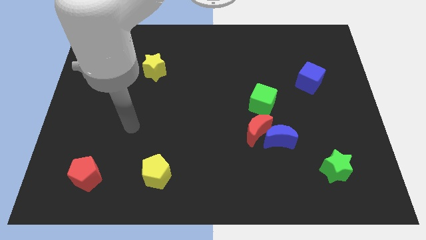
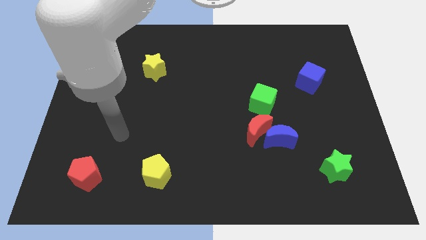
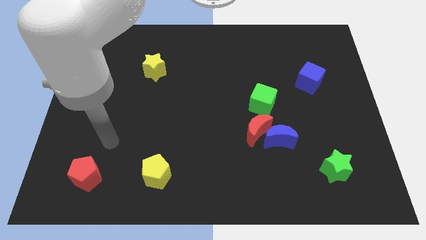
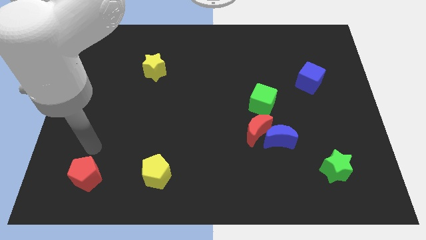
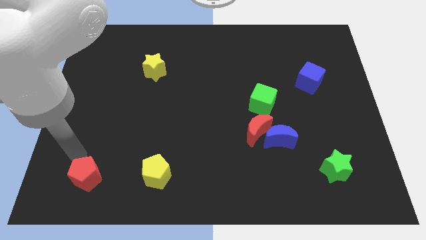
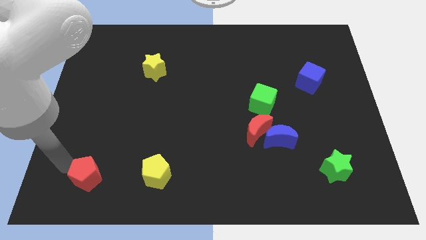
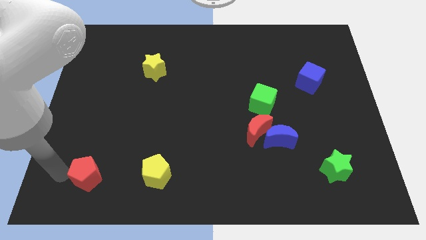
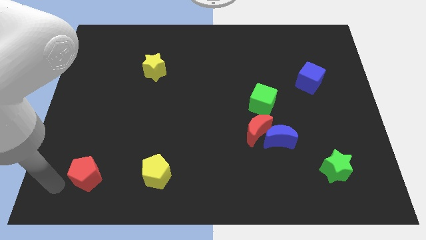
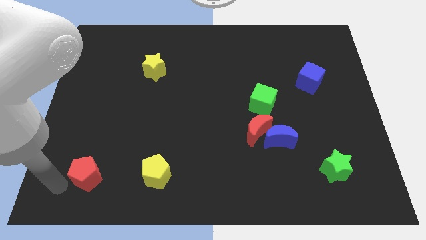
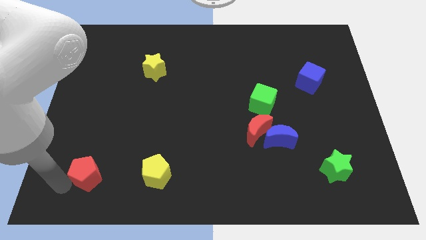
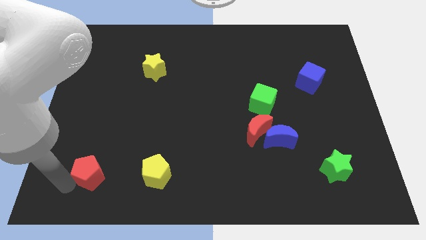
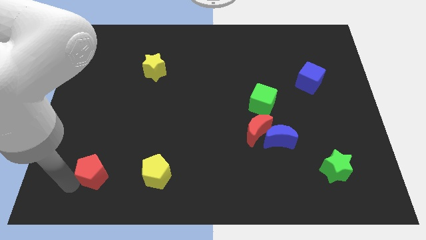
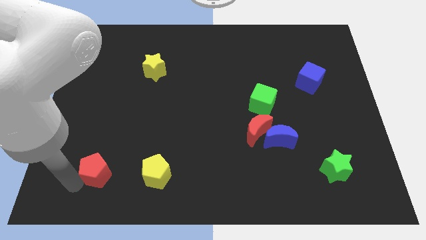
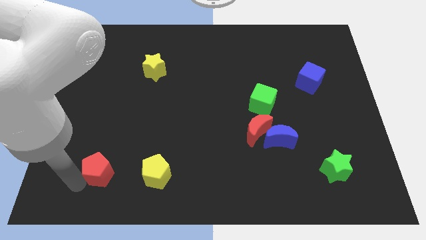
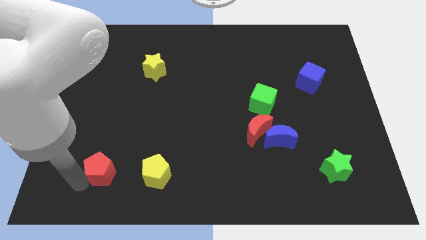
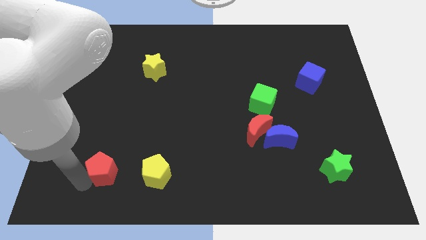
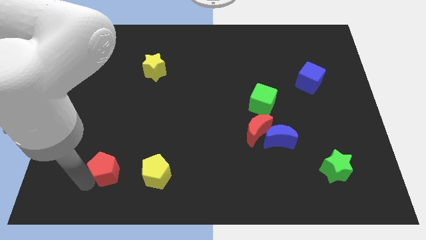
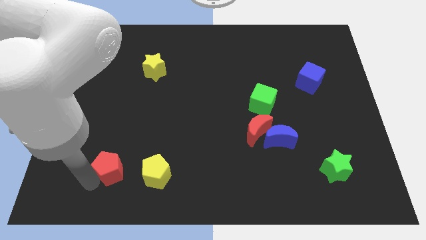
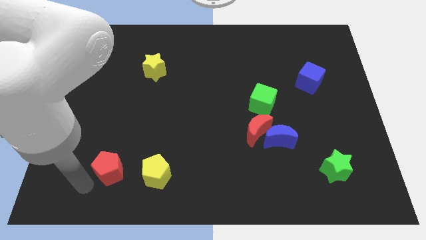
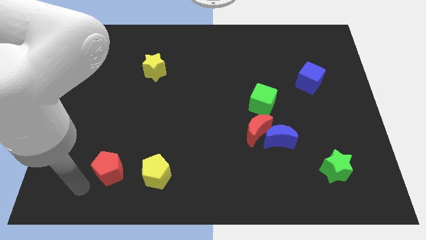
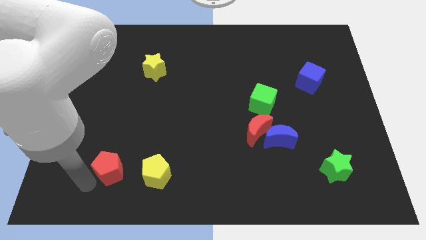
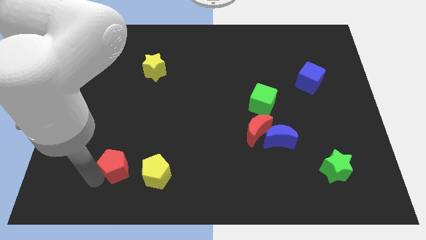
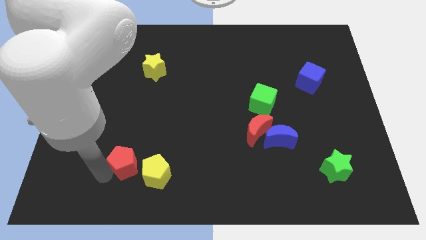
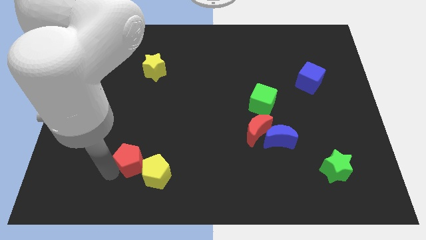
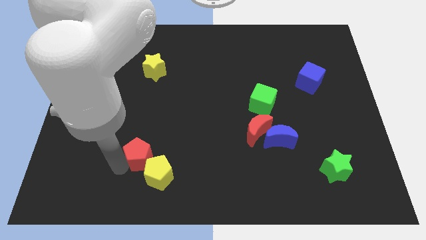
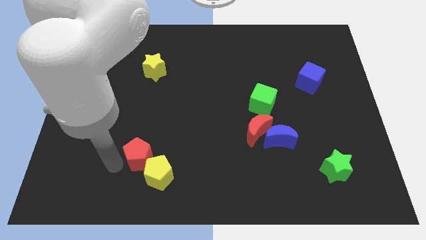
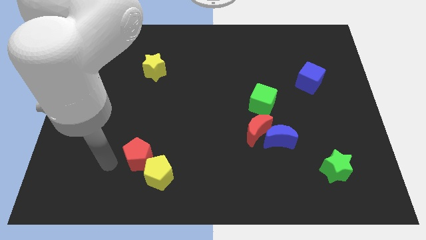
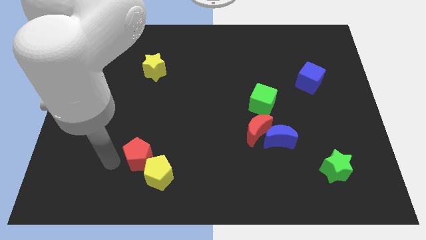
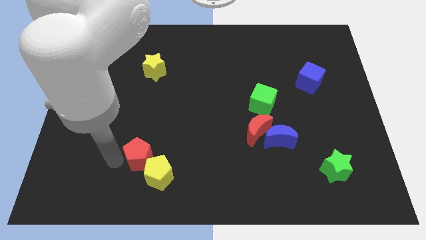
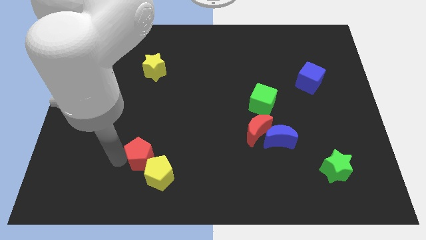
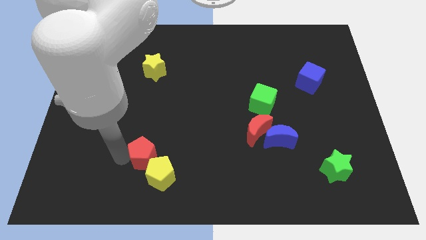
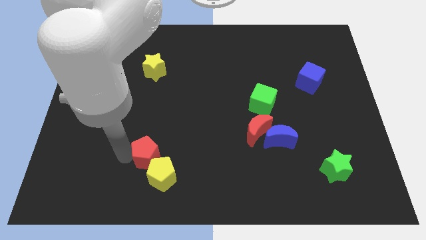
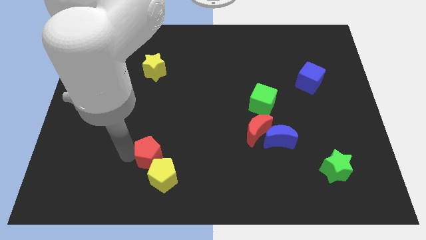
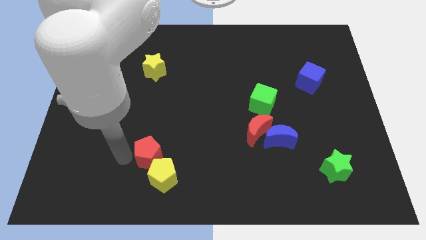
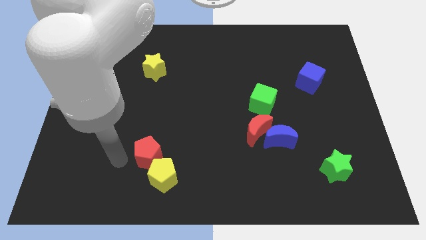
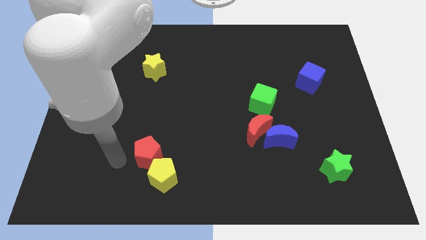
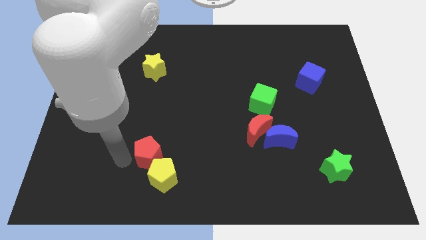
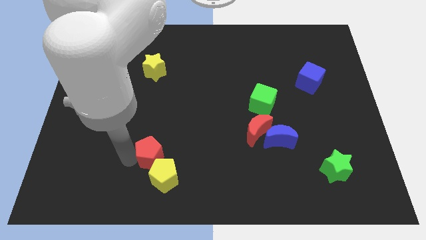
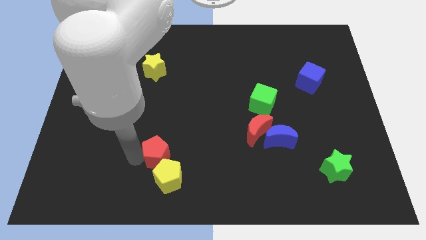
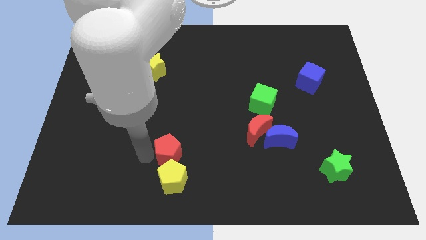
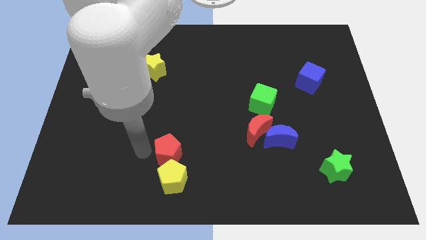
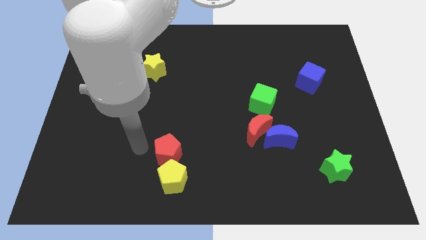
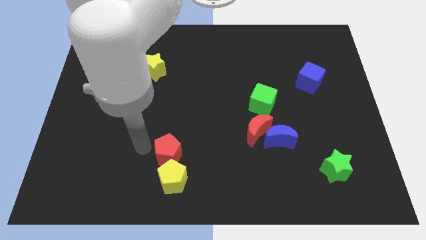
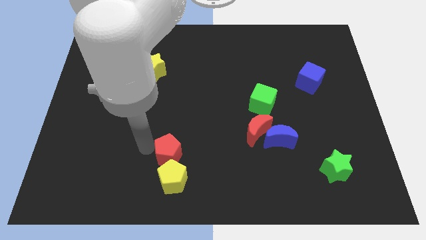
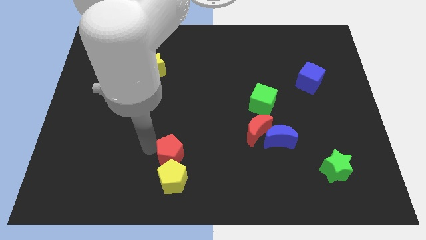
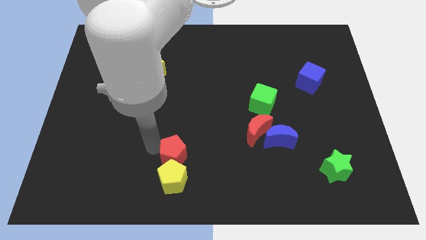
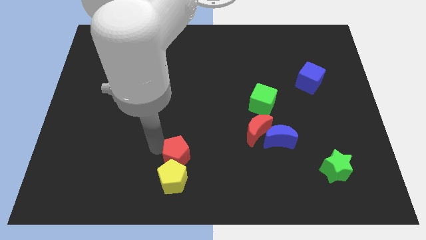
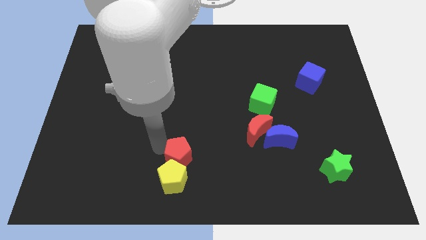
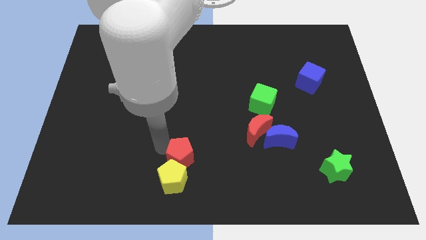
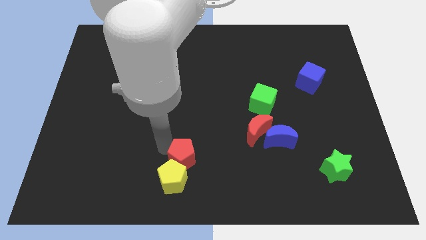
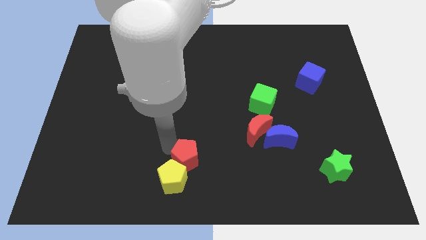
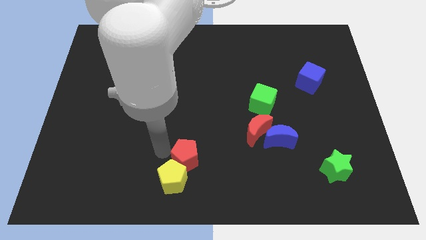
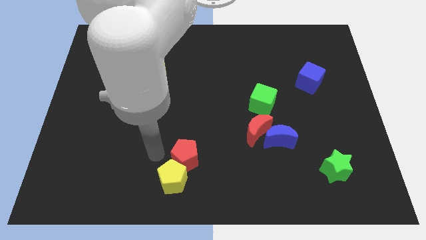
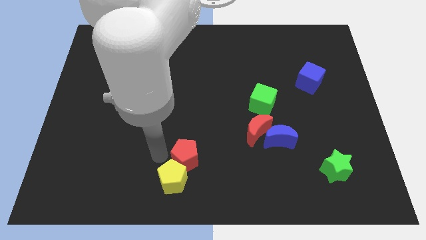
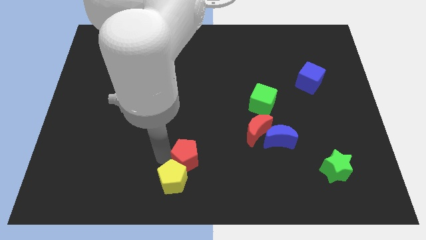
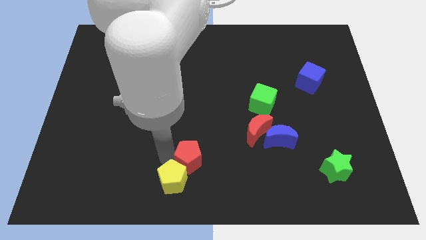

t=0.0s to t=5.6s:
move the red pentagon right

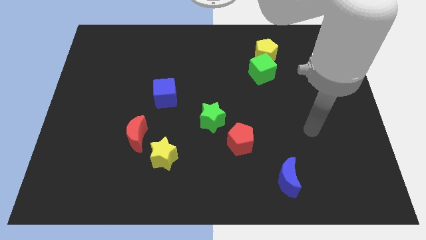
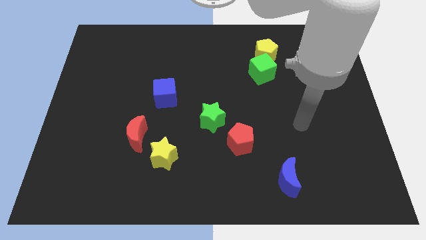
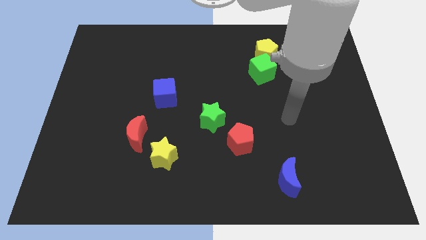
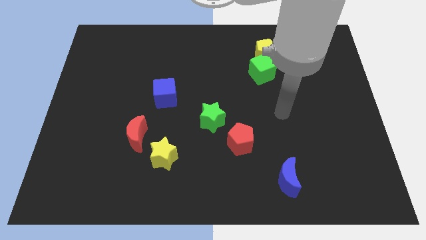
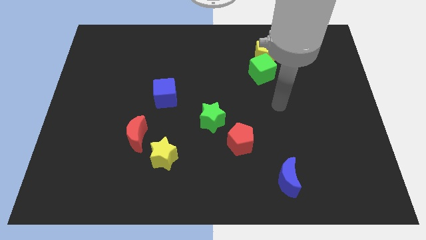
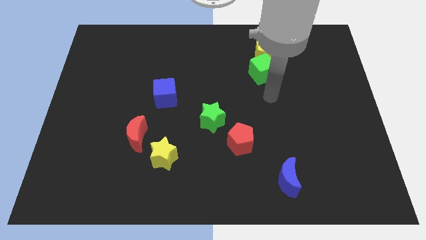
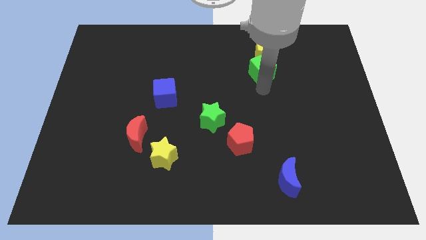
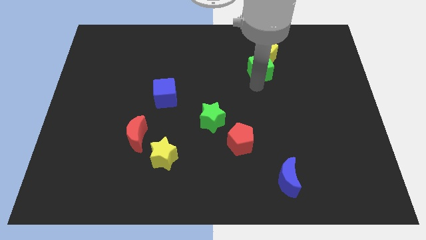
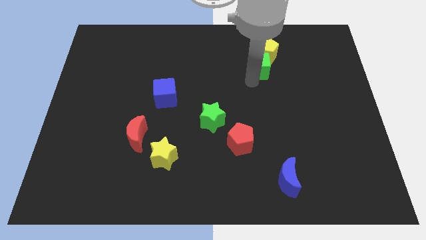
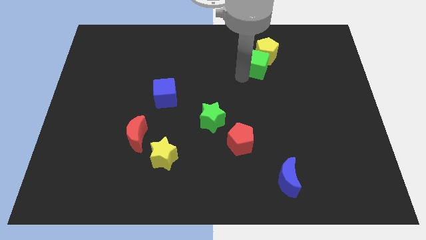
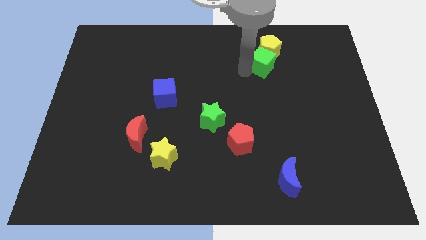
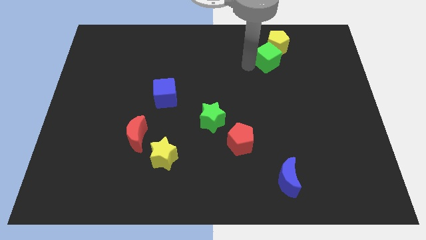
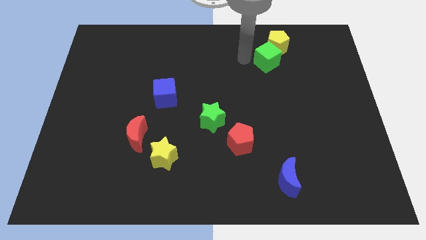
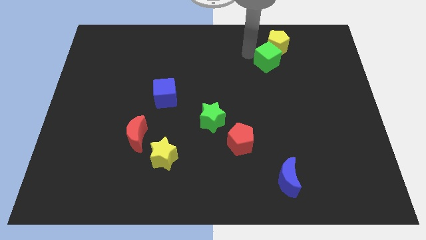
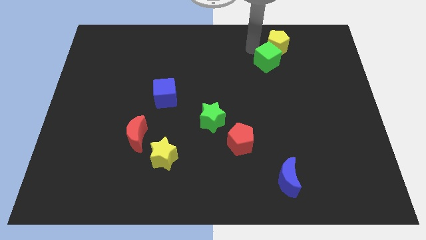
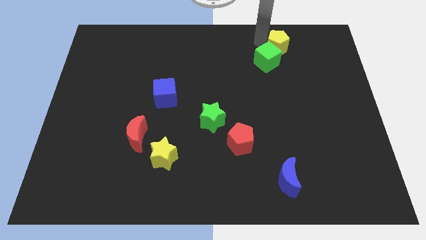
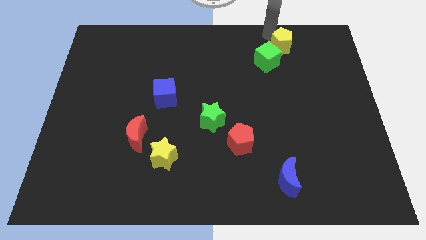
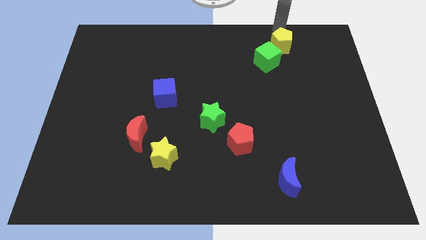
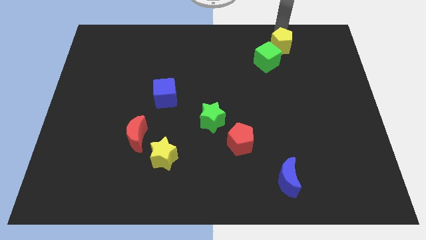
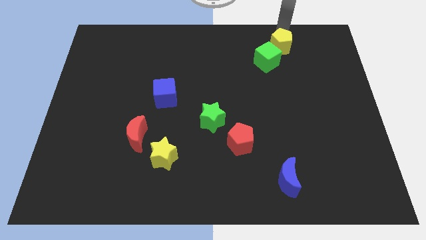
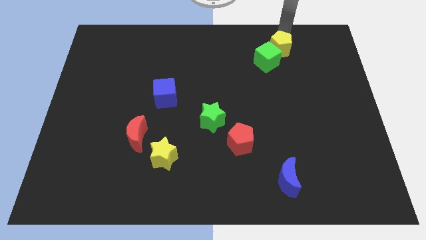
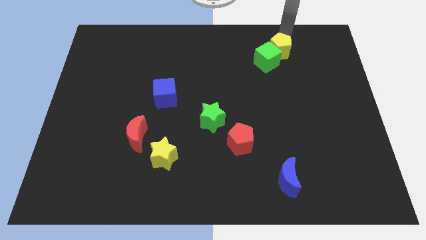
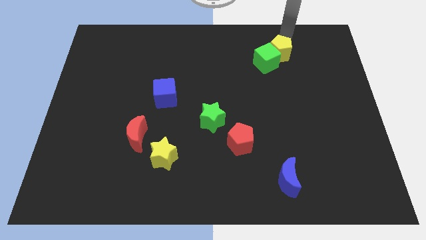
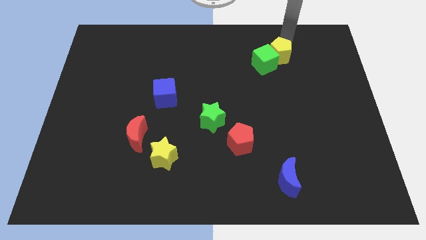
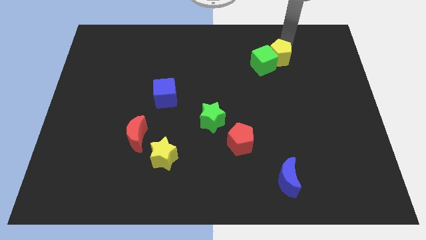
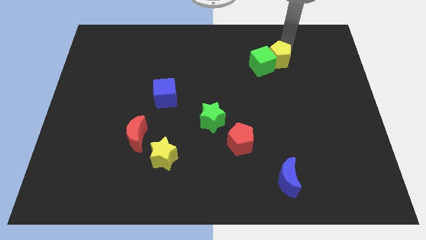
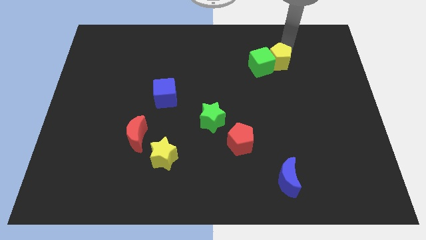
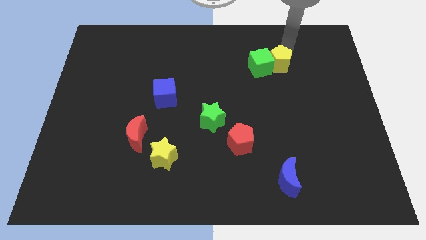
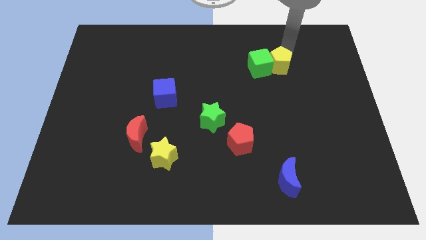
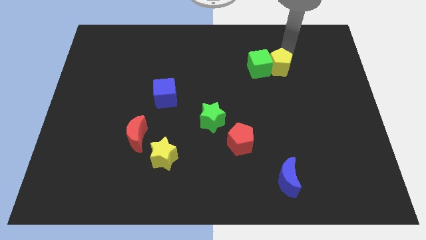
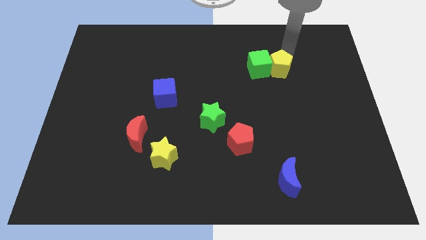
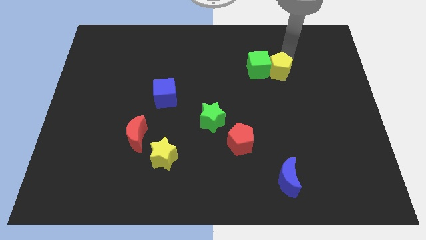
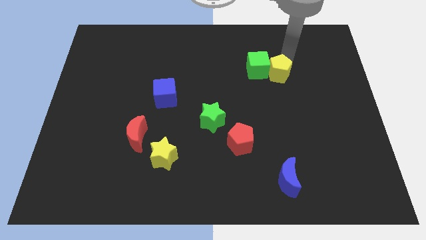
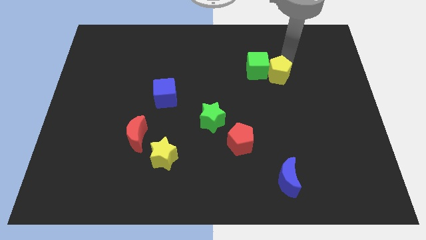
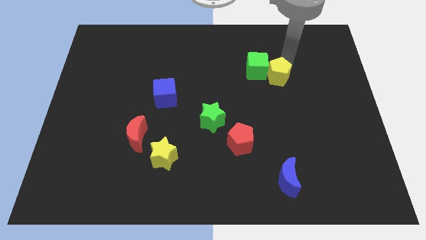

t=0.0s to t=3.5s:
push the yellow pentagon down a little bit
